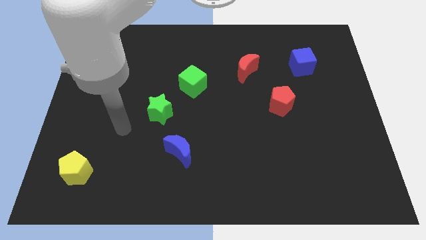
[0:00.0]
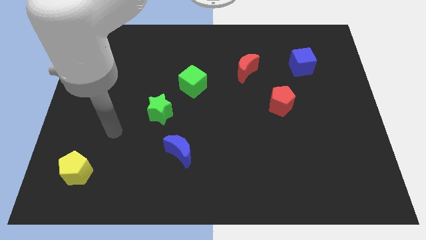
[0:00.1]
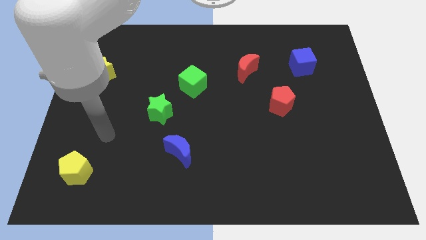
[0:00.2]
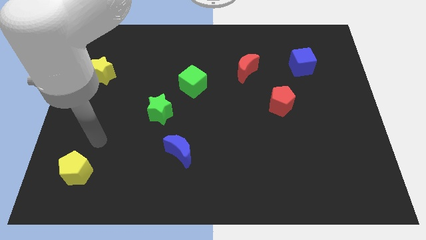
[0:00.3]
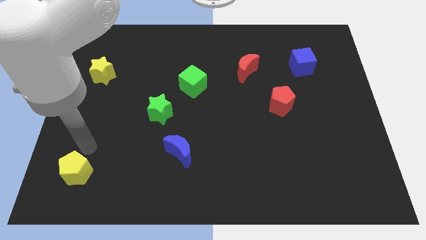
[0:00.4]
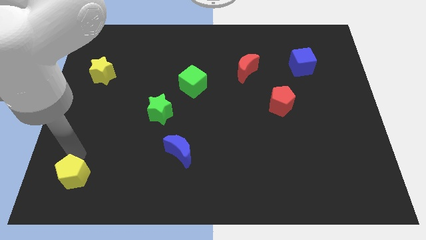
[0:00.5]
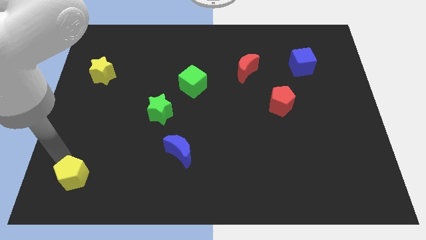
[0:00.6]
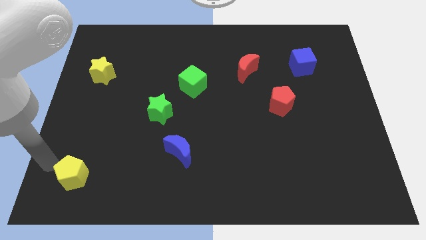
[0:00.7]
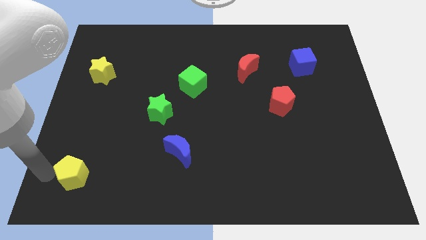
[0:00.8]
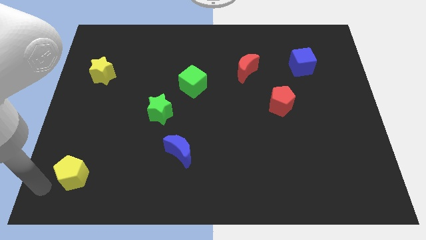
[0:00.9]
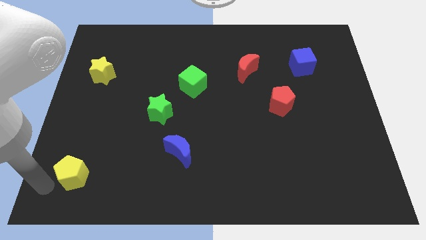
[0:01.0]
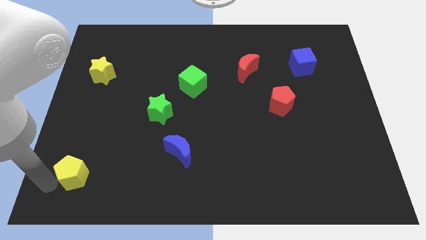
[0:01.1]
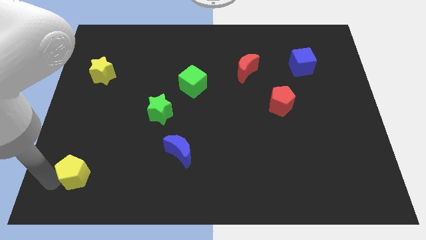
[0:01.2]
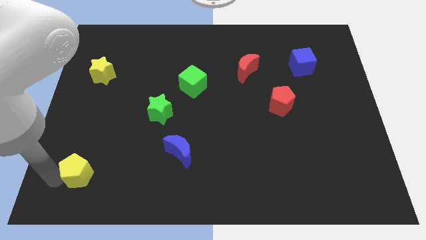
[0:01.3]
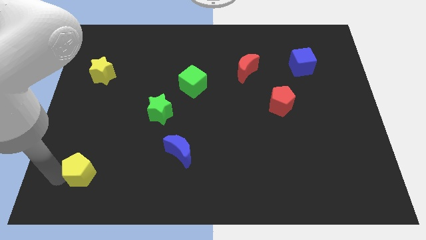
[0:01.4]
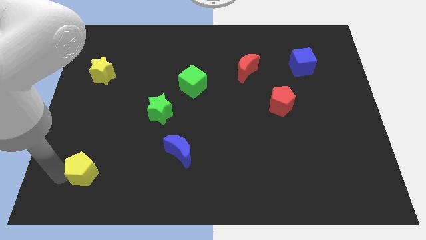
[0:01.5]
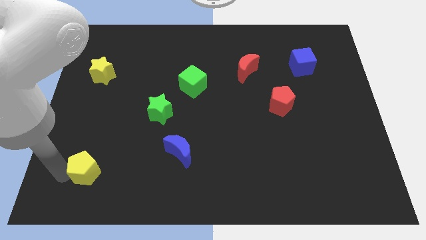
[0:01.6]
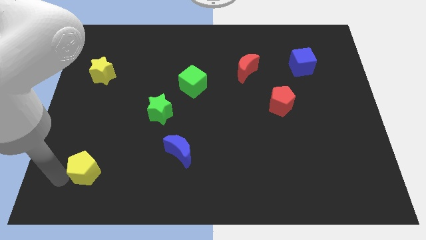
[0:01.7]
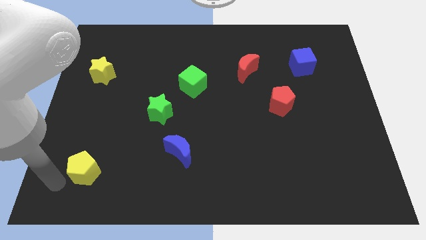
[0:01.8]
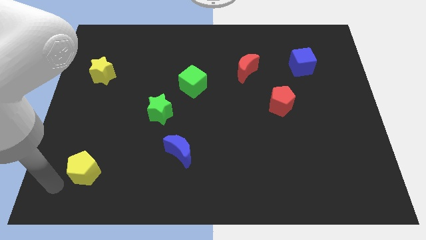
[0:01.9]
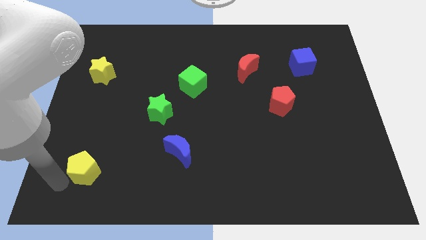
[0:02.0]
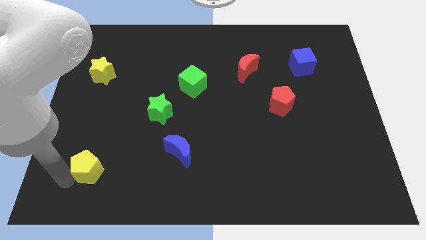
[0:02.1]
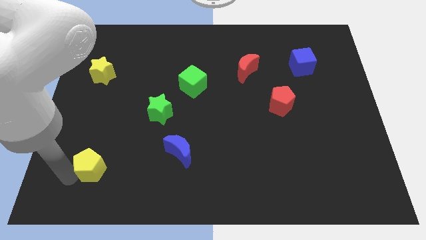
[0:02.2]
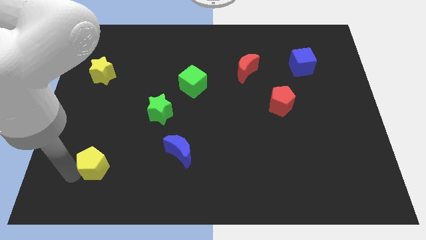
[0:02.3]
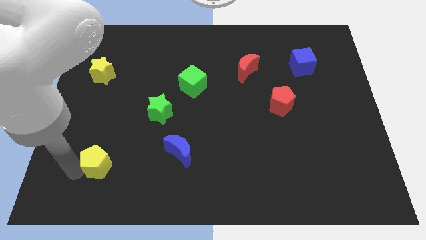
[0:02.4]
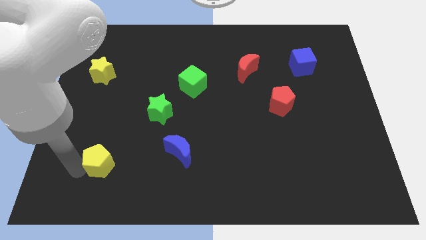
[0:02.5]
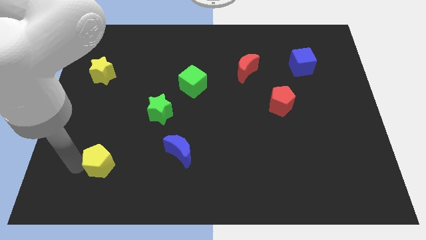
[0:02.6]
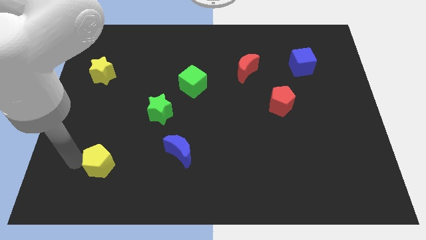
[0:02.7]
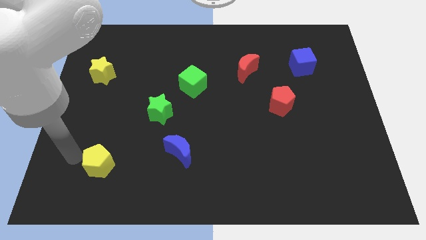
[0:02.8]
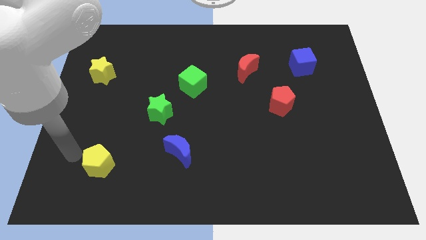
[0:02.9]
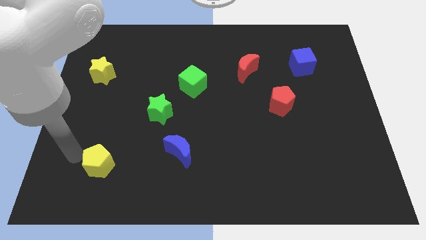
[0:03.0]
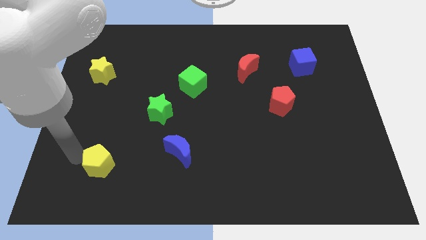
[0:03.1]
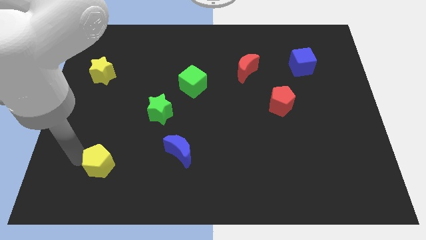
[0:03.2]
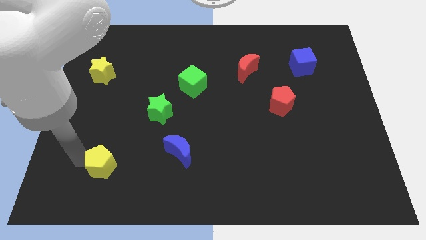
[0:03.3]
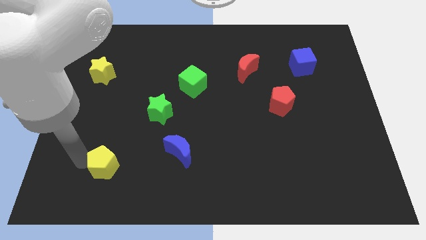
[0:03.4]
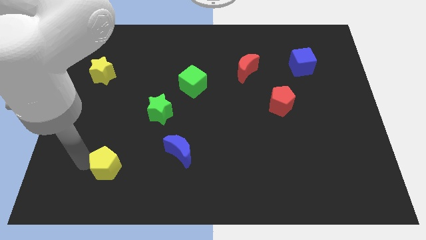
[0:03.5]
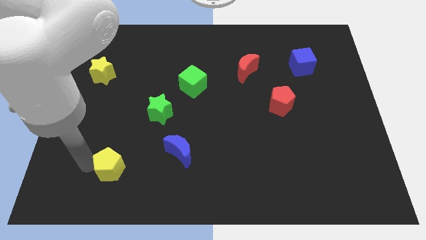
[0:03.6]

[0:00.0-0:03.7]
move the yellow pentagon to the right a little bit

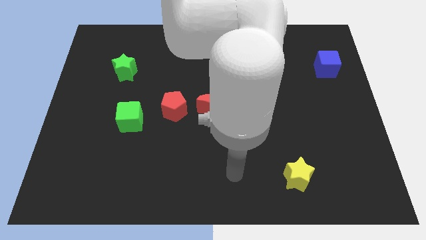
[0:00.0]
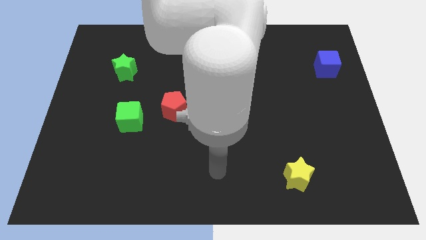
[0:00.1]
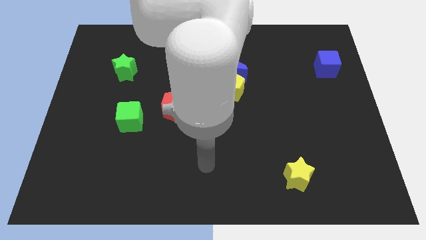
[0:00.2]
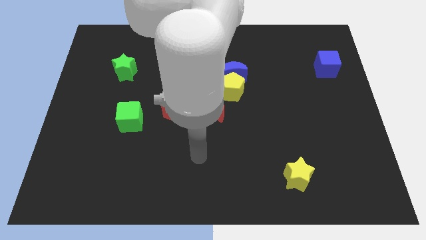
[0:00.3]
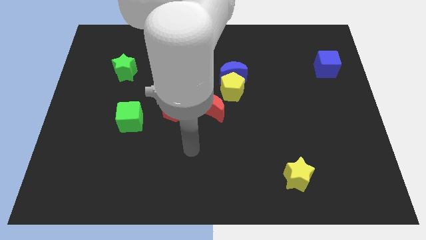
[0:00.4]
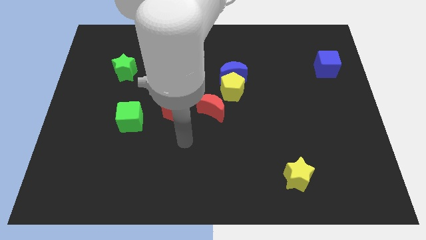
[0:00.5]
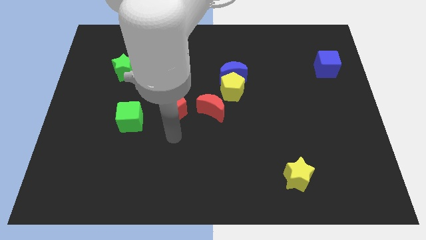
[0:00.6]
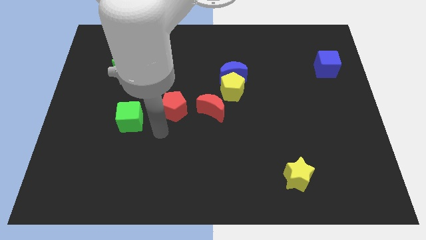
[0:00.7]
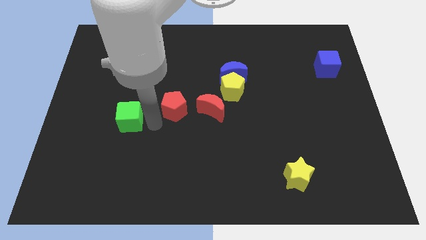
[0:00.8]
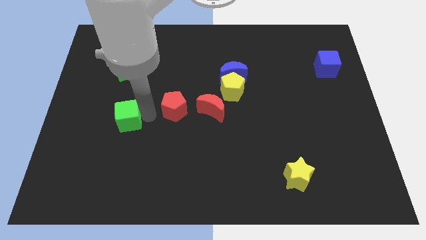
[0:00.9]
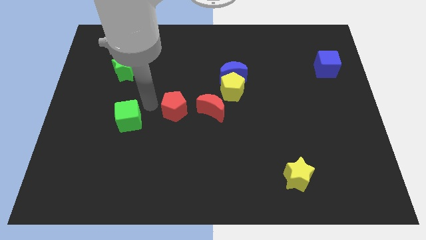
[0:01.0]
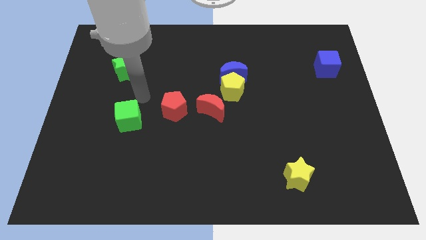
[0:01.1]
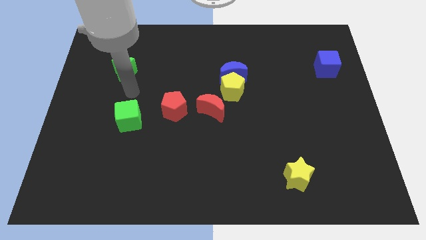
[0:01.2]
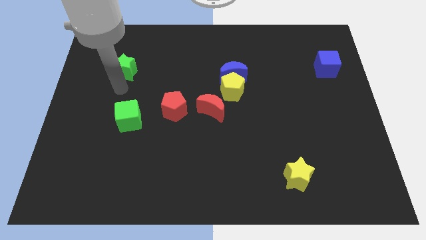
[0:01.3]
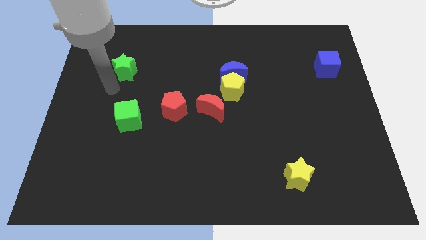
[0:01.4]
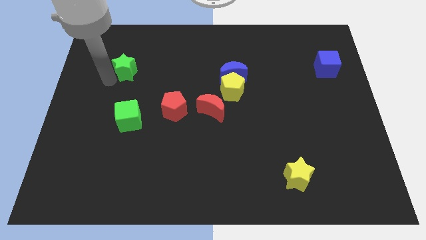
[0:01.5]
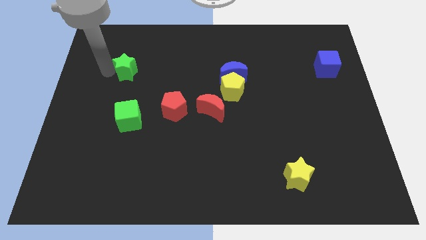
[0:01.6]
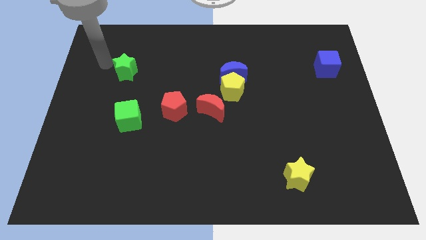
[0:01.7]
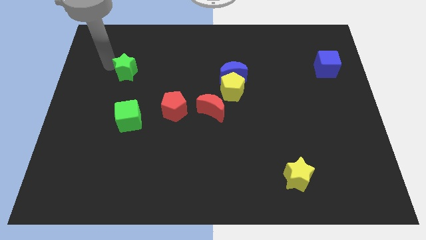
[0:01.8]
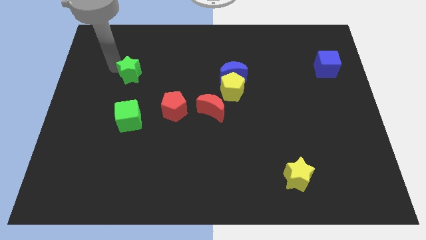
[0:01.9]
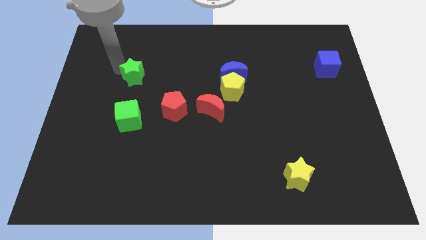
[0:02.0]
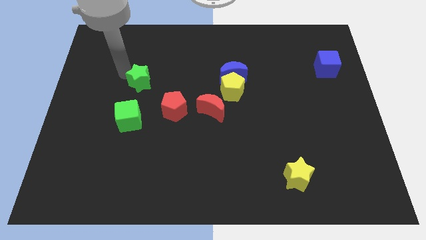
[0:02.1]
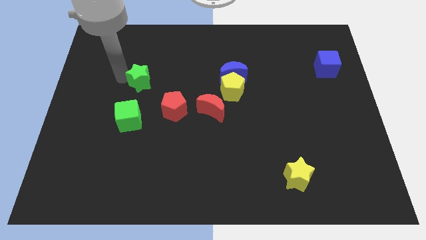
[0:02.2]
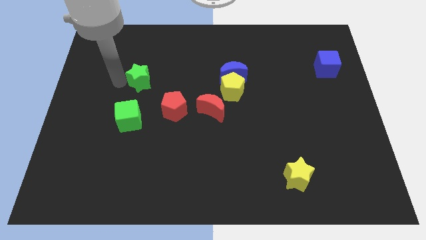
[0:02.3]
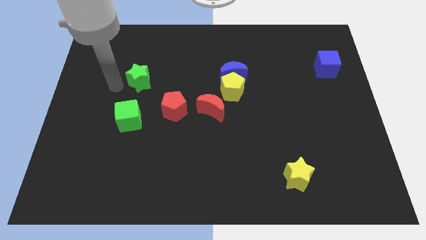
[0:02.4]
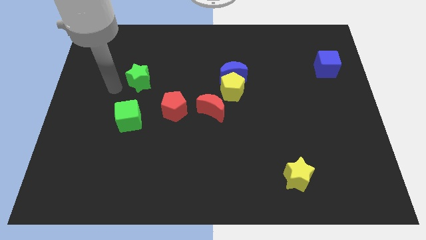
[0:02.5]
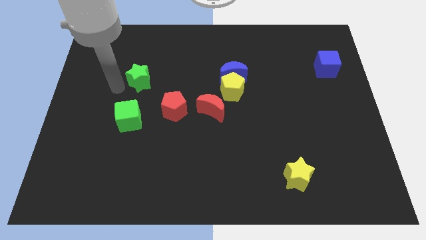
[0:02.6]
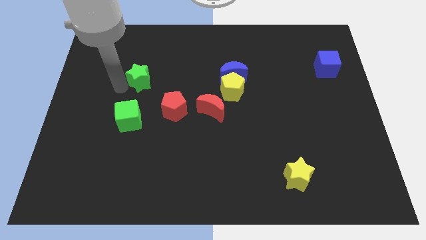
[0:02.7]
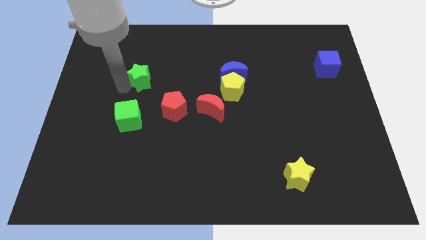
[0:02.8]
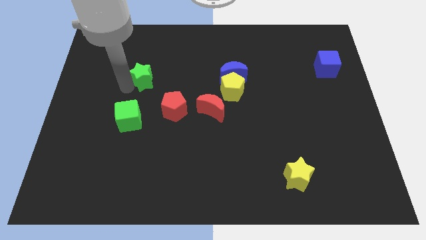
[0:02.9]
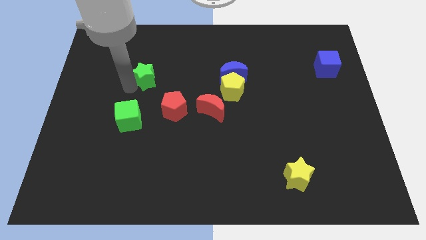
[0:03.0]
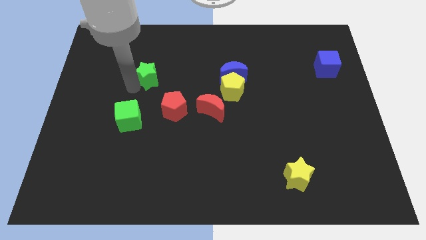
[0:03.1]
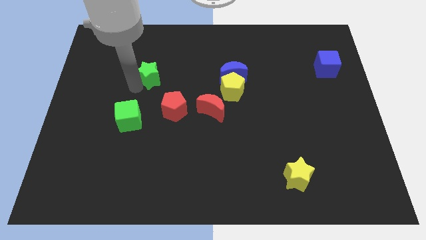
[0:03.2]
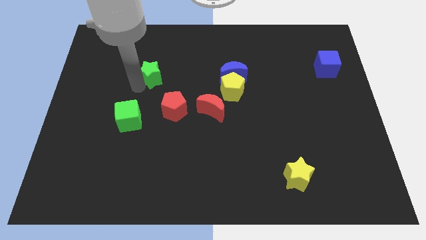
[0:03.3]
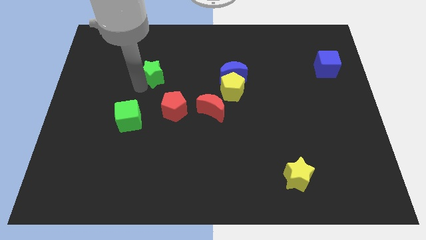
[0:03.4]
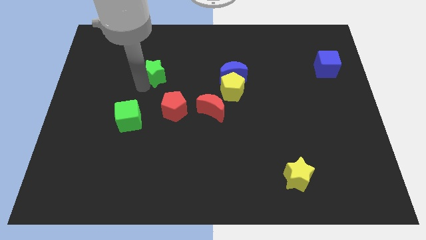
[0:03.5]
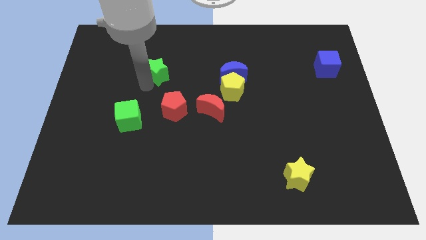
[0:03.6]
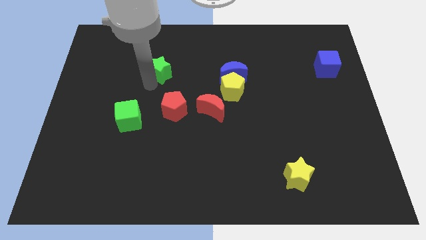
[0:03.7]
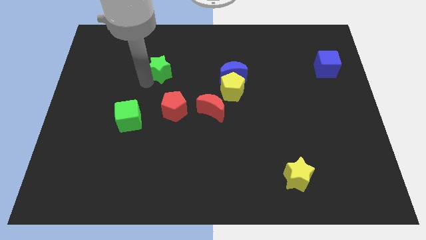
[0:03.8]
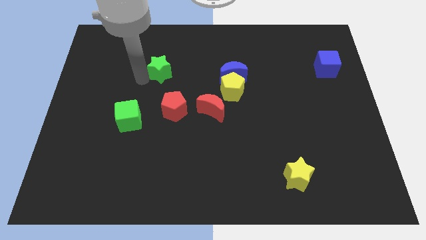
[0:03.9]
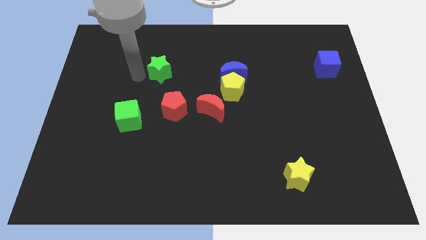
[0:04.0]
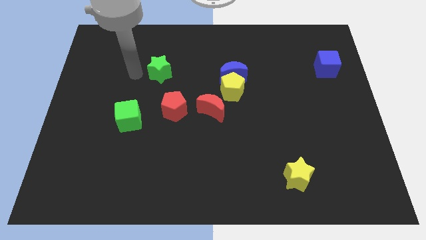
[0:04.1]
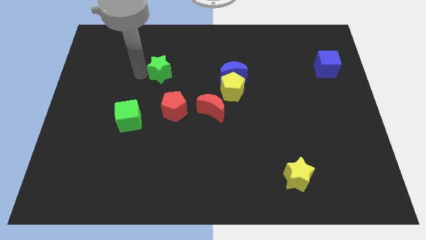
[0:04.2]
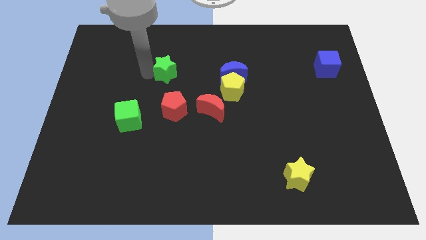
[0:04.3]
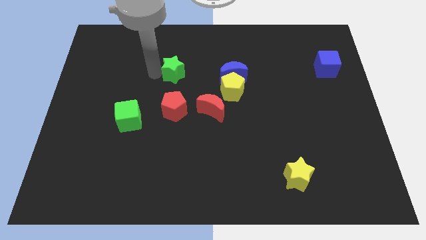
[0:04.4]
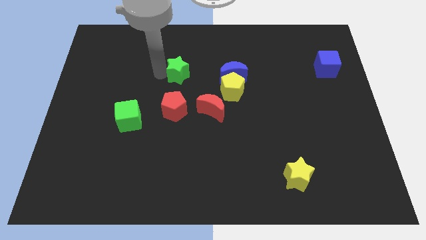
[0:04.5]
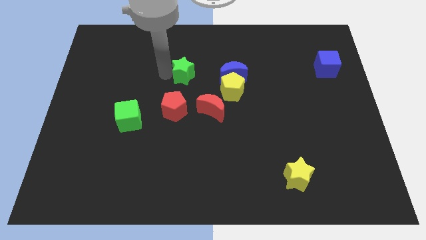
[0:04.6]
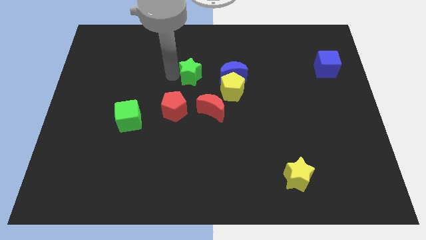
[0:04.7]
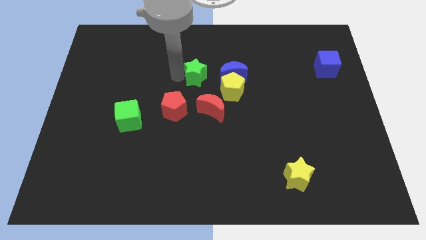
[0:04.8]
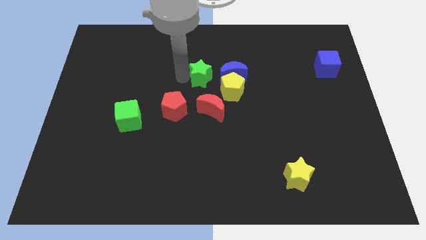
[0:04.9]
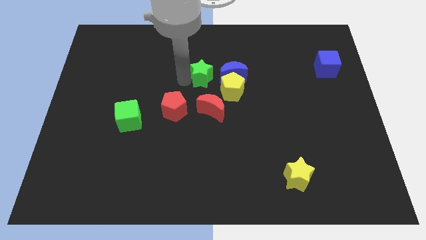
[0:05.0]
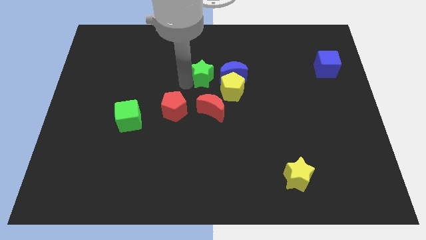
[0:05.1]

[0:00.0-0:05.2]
push the green star to the right
